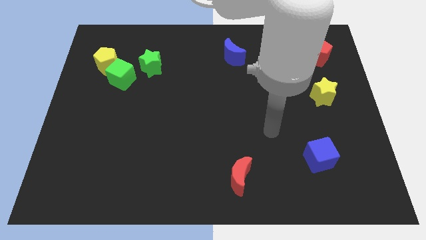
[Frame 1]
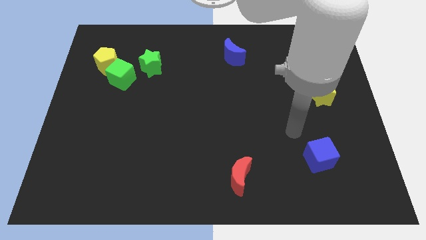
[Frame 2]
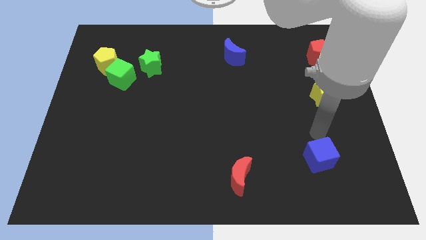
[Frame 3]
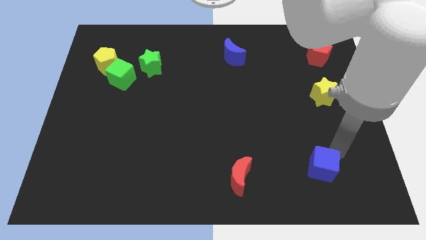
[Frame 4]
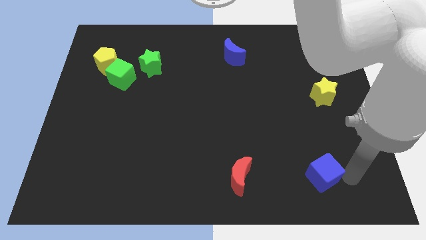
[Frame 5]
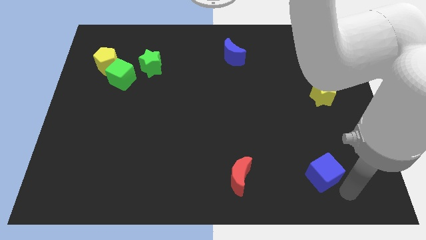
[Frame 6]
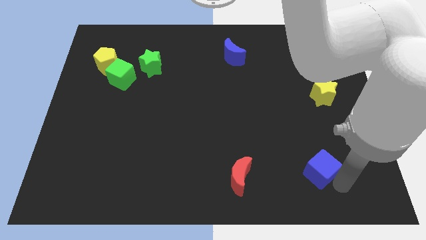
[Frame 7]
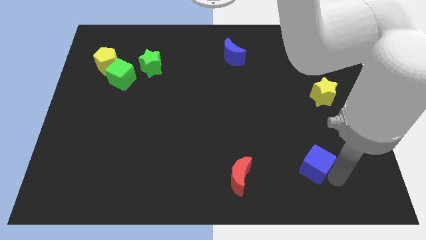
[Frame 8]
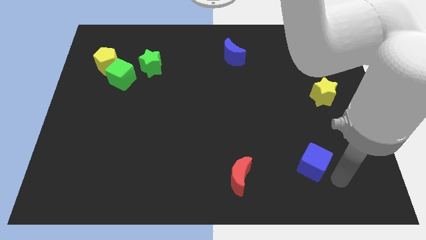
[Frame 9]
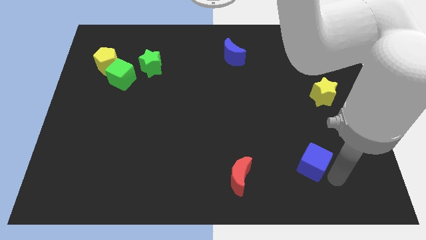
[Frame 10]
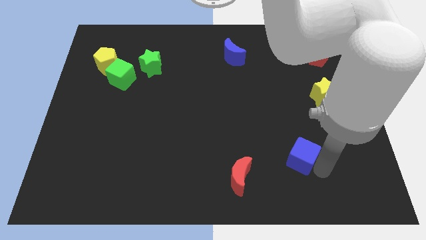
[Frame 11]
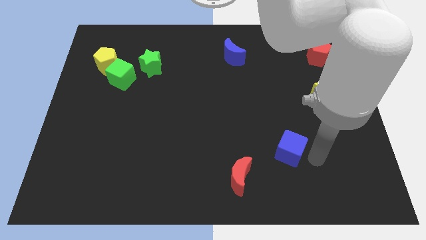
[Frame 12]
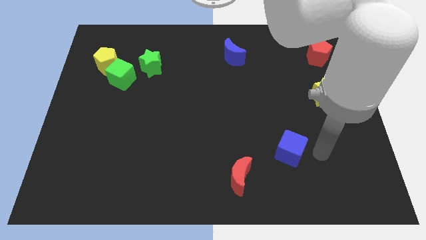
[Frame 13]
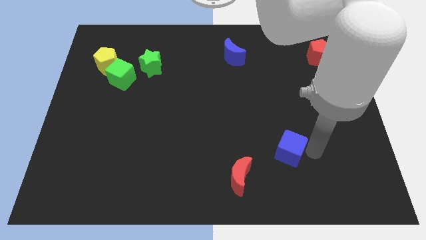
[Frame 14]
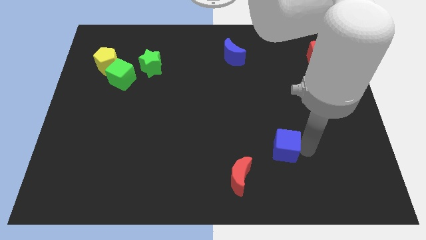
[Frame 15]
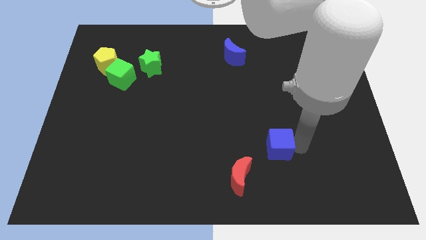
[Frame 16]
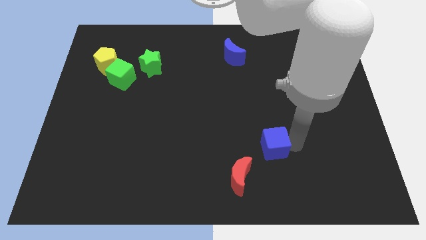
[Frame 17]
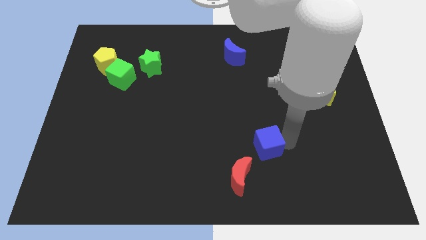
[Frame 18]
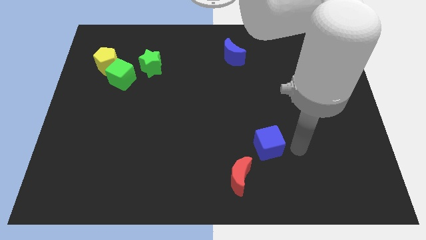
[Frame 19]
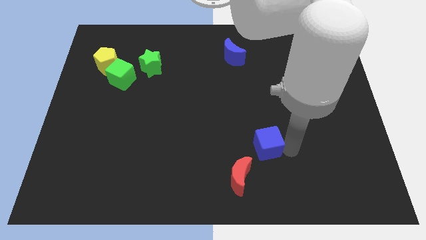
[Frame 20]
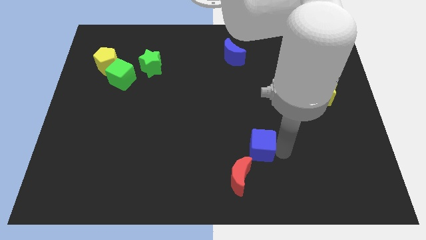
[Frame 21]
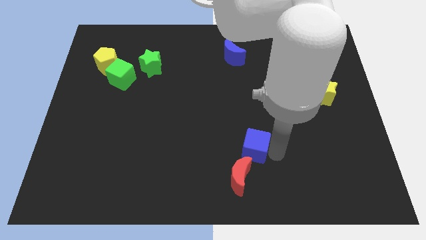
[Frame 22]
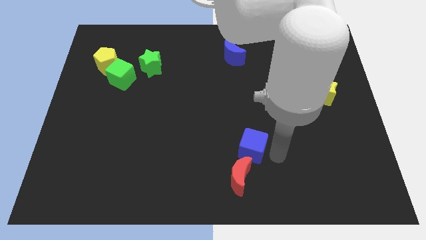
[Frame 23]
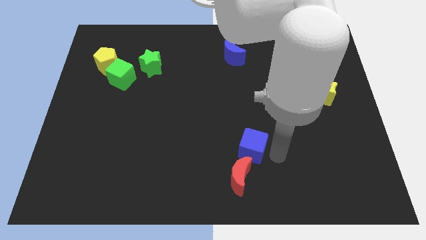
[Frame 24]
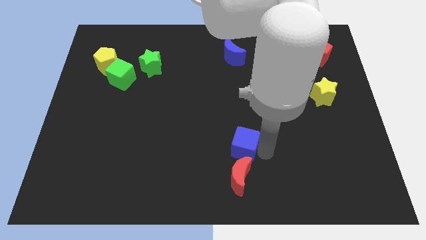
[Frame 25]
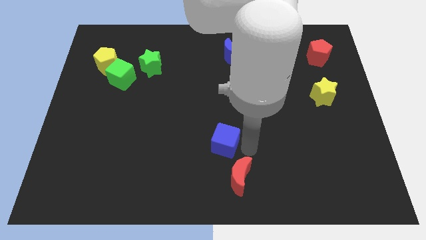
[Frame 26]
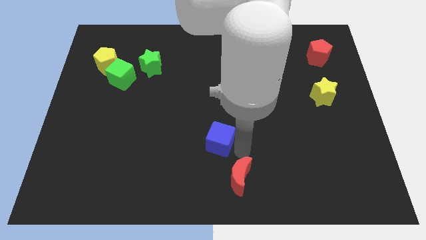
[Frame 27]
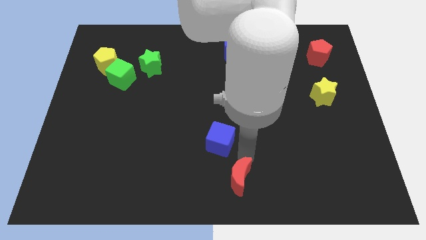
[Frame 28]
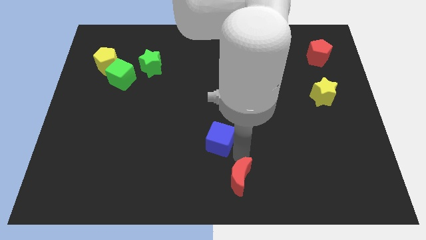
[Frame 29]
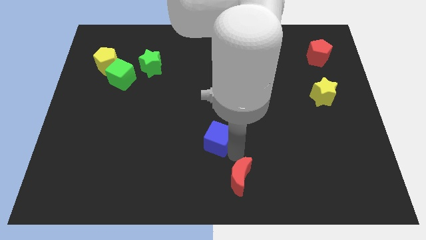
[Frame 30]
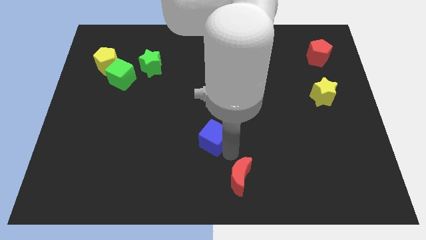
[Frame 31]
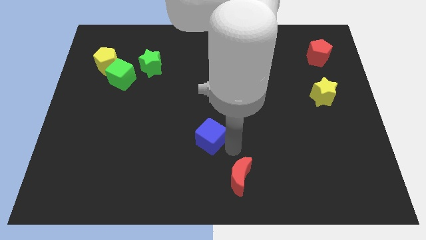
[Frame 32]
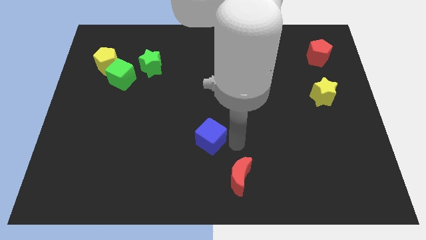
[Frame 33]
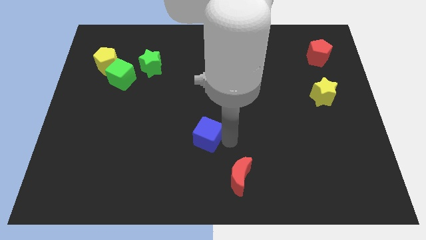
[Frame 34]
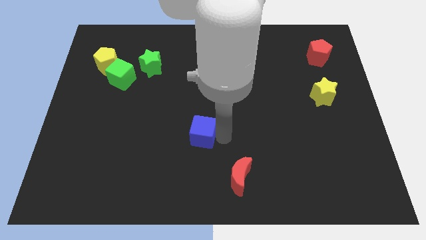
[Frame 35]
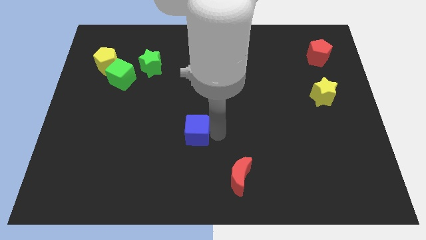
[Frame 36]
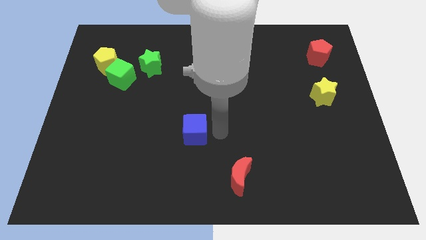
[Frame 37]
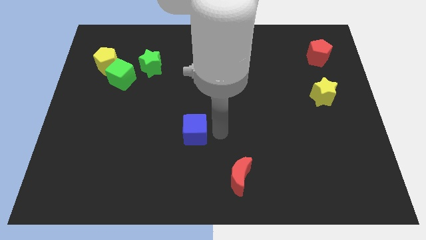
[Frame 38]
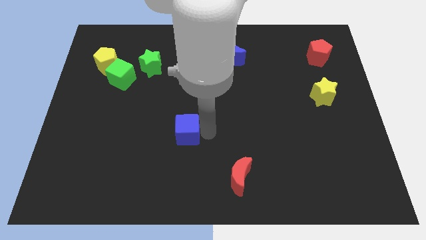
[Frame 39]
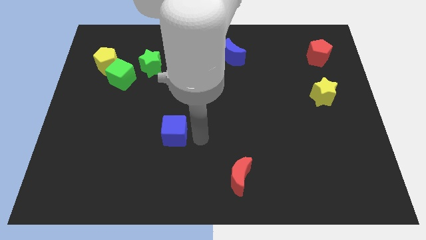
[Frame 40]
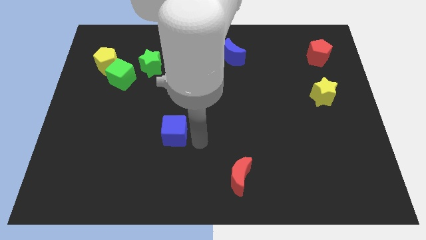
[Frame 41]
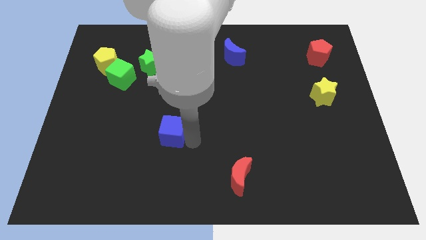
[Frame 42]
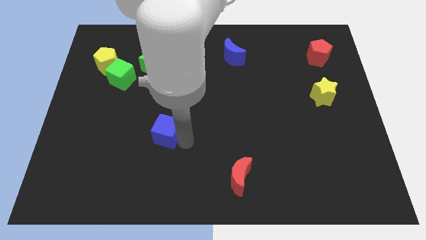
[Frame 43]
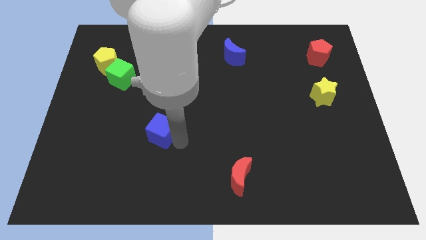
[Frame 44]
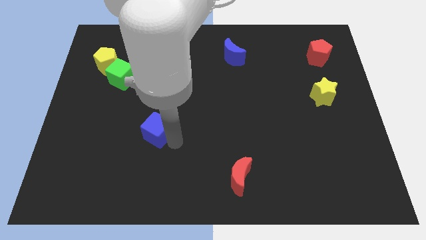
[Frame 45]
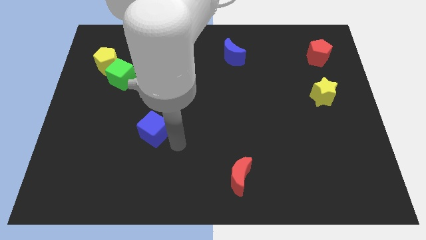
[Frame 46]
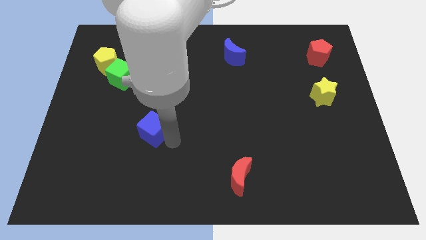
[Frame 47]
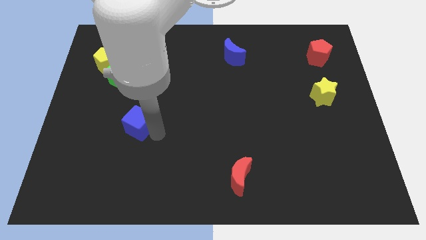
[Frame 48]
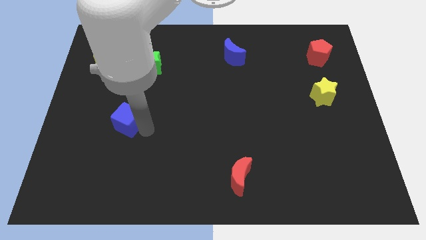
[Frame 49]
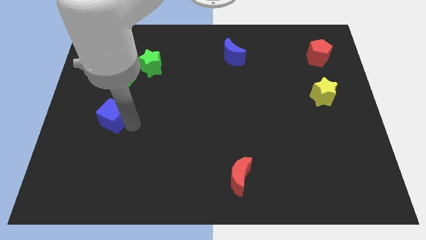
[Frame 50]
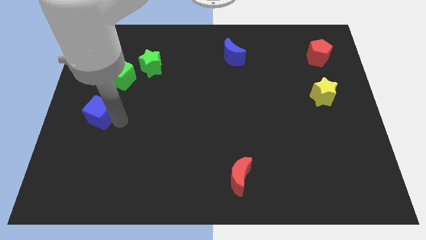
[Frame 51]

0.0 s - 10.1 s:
put the blue cube to the center left

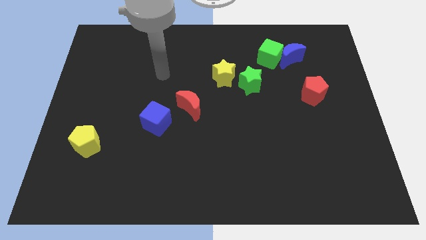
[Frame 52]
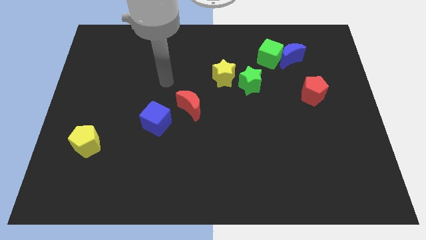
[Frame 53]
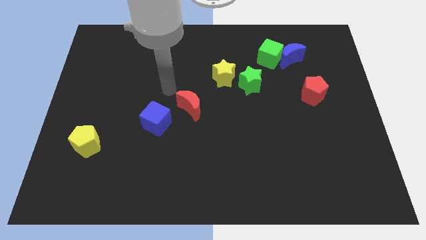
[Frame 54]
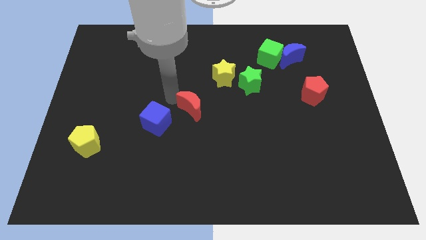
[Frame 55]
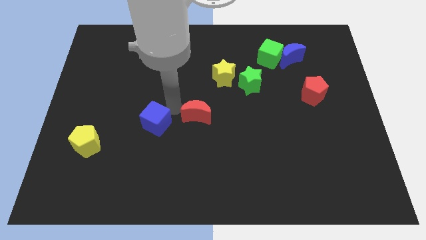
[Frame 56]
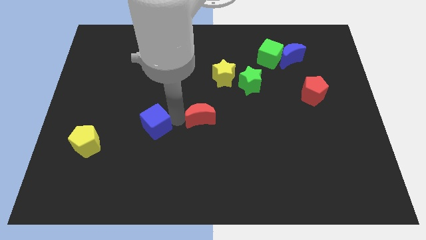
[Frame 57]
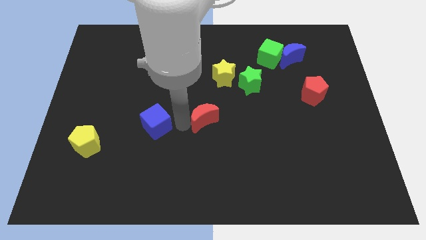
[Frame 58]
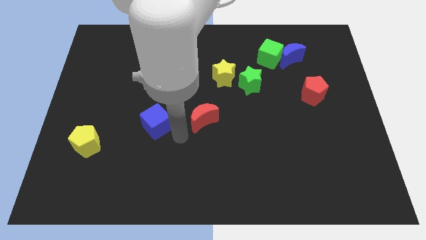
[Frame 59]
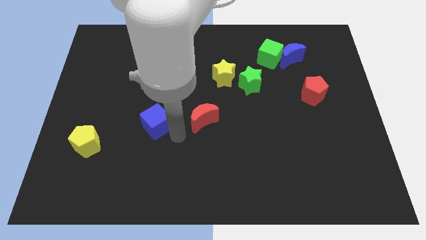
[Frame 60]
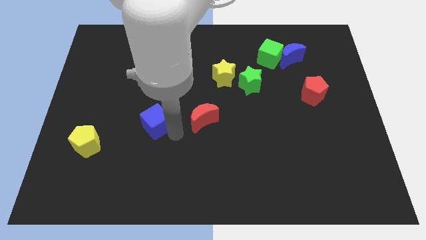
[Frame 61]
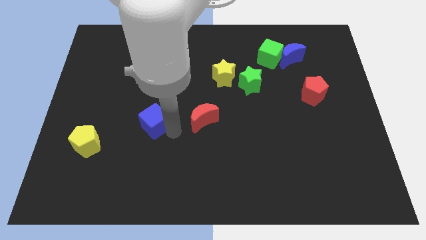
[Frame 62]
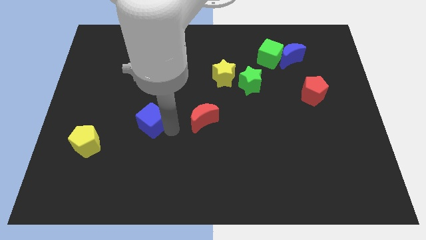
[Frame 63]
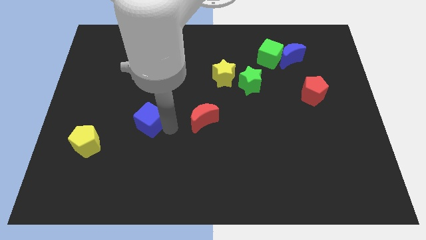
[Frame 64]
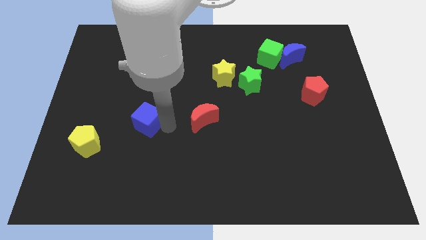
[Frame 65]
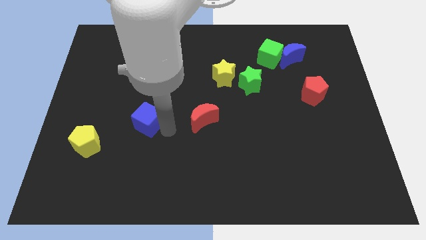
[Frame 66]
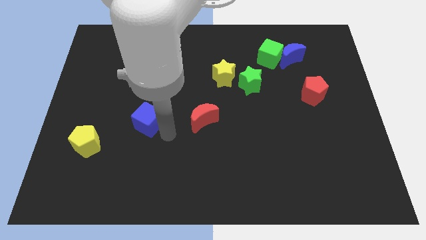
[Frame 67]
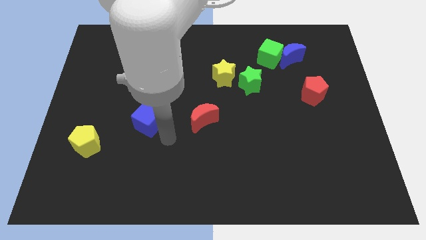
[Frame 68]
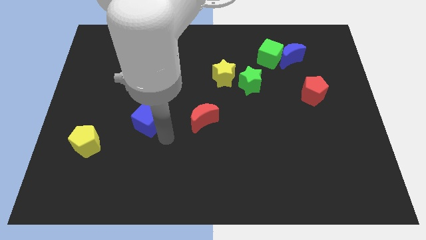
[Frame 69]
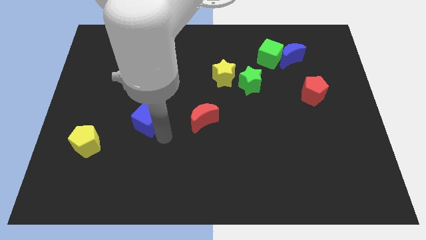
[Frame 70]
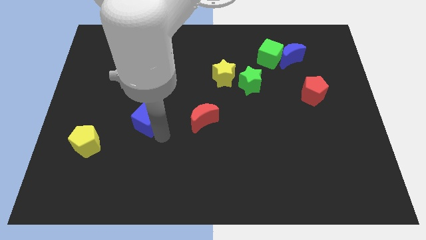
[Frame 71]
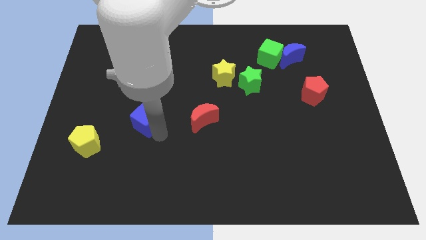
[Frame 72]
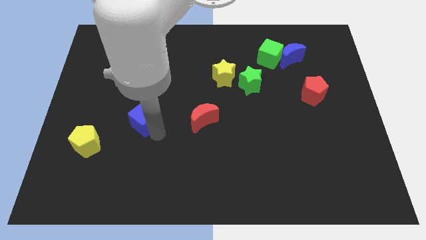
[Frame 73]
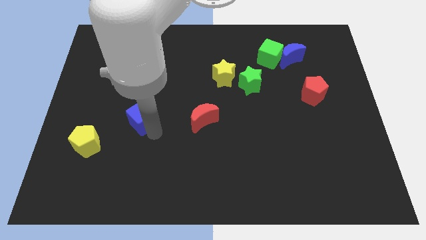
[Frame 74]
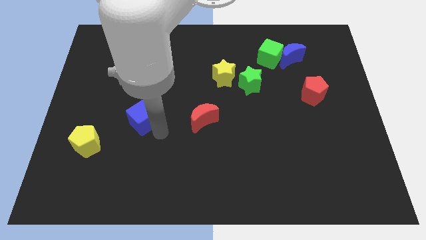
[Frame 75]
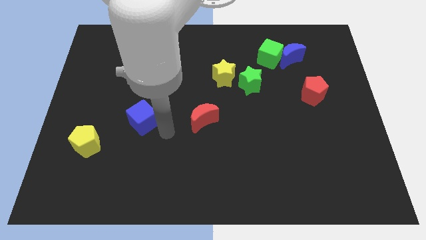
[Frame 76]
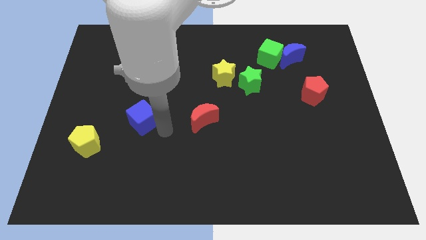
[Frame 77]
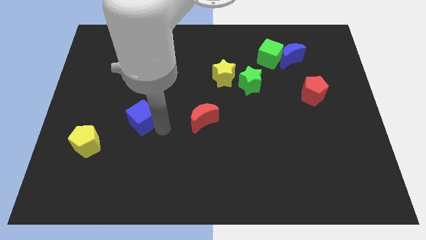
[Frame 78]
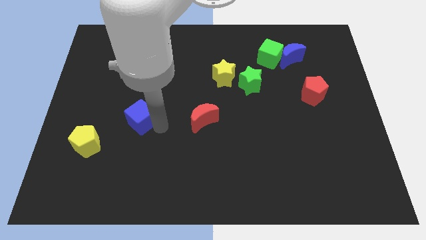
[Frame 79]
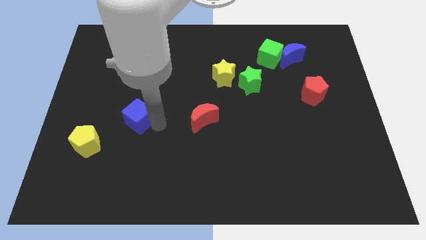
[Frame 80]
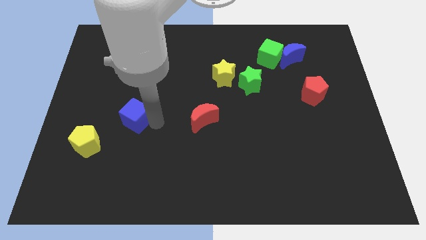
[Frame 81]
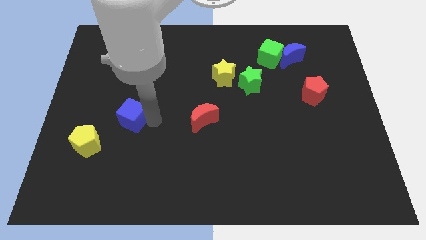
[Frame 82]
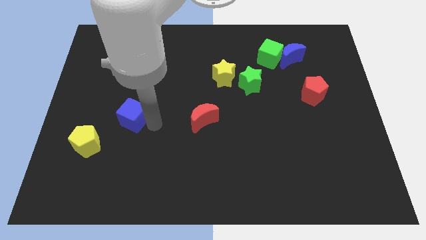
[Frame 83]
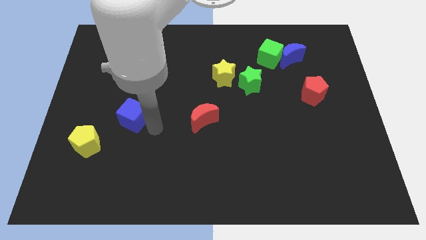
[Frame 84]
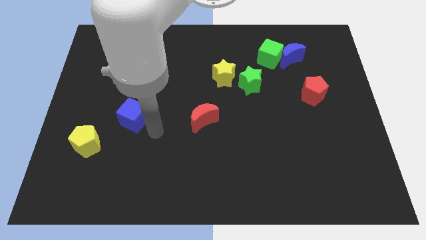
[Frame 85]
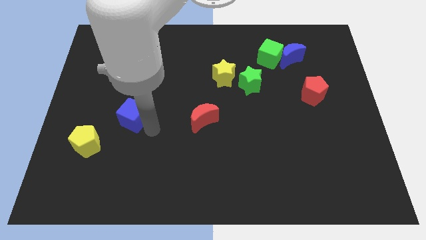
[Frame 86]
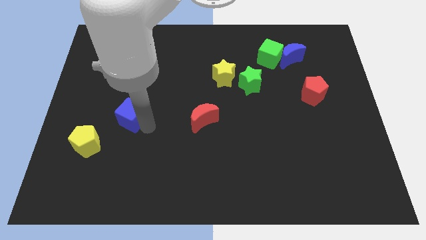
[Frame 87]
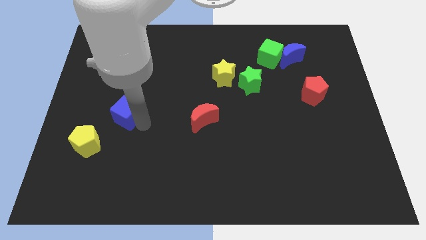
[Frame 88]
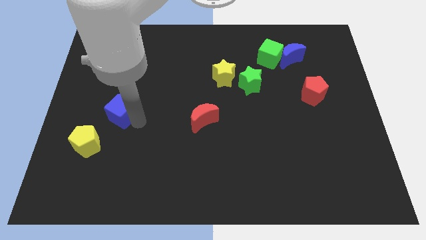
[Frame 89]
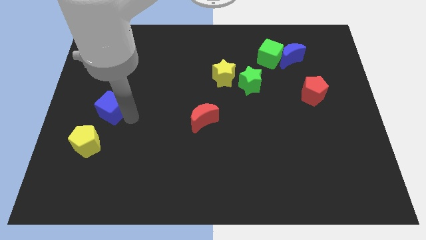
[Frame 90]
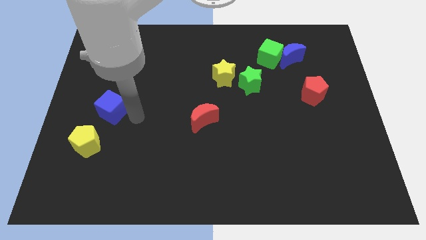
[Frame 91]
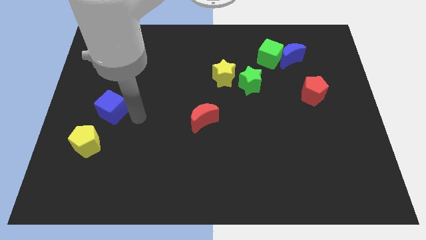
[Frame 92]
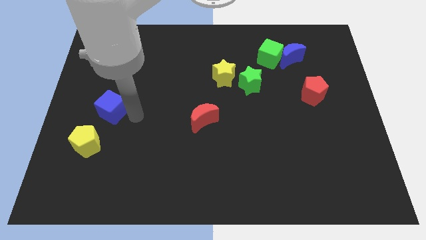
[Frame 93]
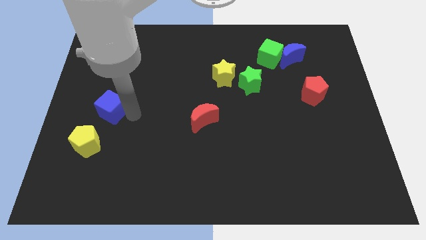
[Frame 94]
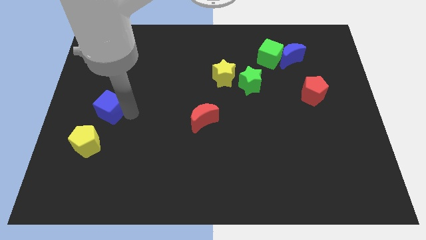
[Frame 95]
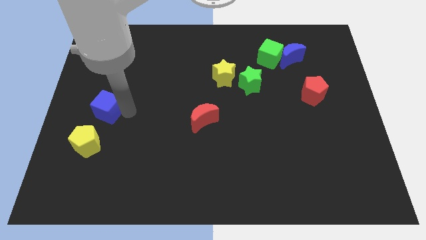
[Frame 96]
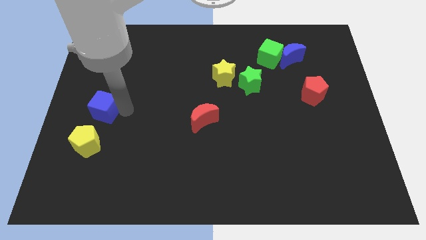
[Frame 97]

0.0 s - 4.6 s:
push the blue cube to the center left
